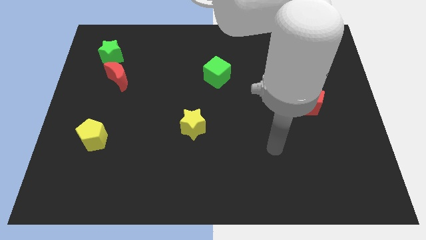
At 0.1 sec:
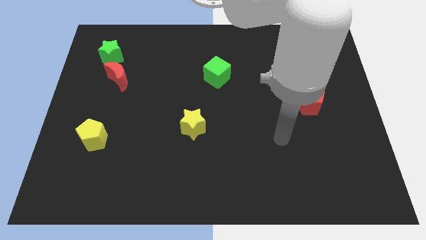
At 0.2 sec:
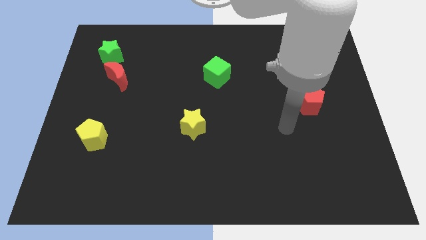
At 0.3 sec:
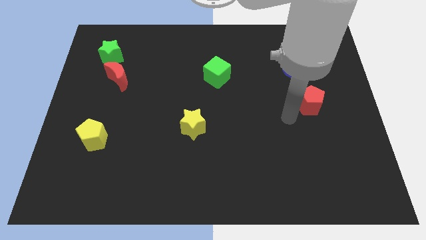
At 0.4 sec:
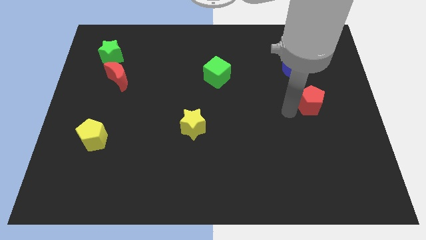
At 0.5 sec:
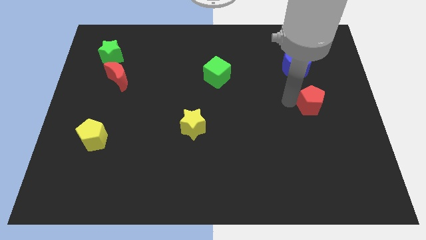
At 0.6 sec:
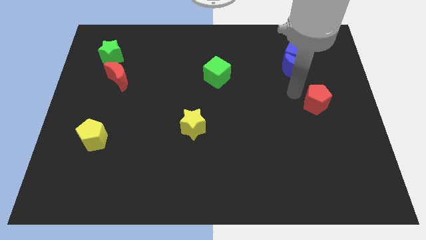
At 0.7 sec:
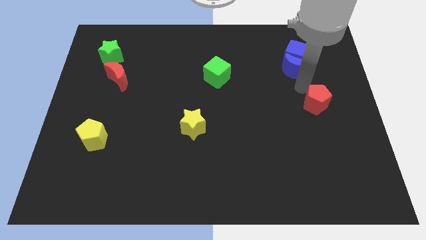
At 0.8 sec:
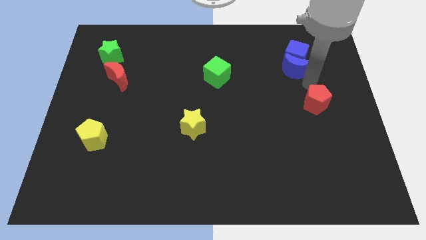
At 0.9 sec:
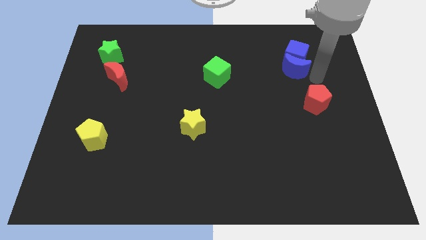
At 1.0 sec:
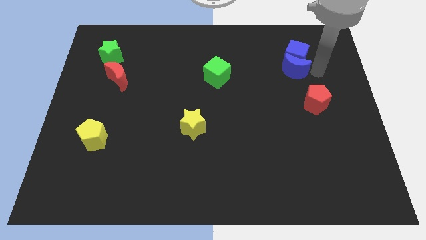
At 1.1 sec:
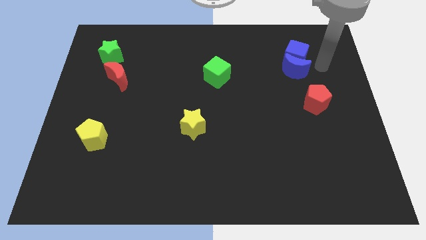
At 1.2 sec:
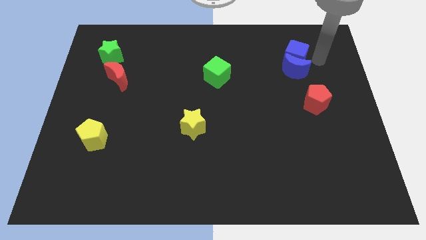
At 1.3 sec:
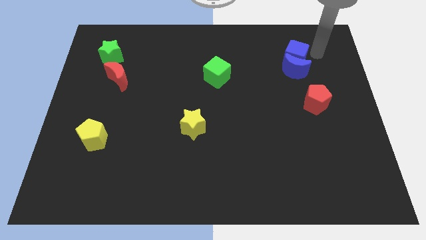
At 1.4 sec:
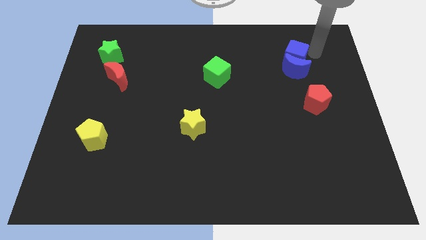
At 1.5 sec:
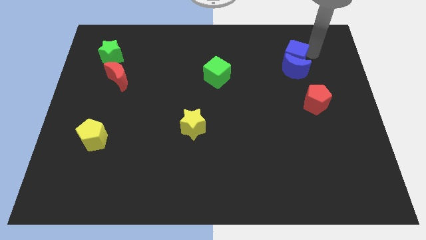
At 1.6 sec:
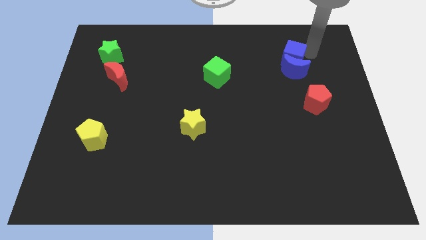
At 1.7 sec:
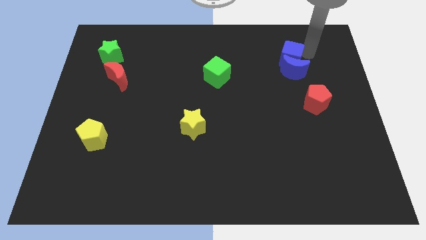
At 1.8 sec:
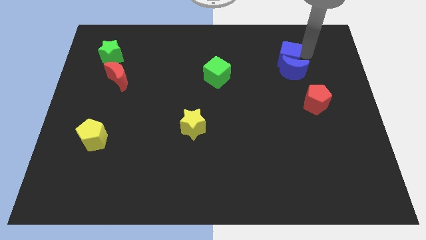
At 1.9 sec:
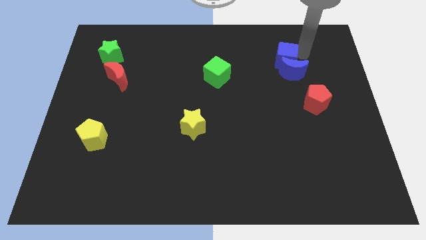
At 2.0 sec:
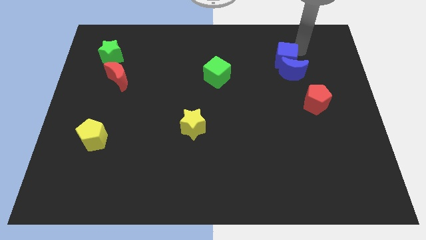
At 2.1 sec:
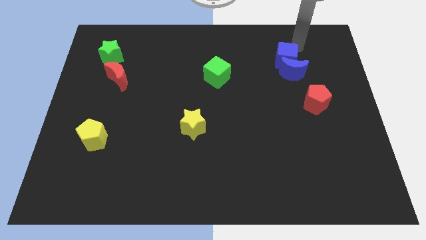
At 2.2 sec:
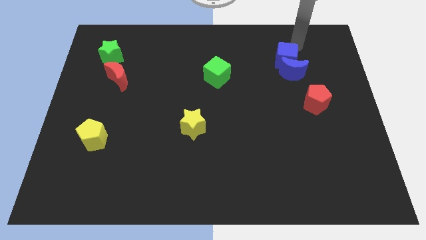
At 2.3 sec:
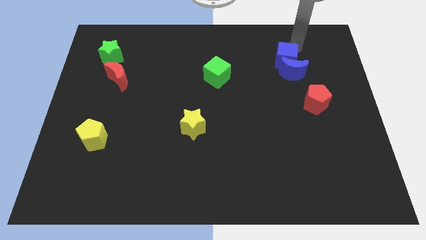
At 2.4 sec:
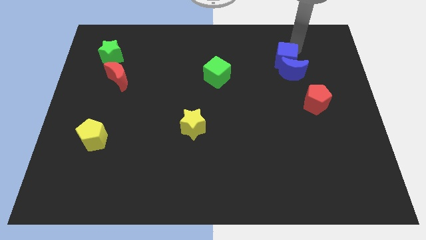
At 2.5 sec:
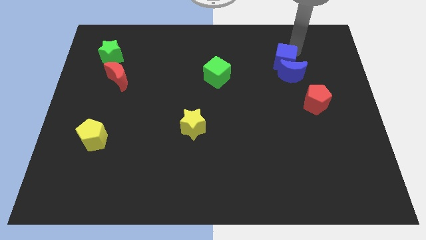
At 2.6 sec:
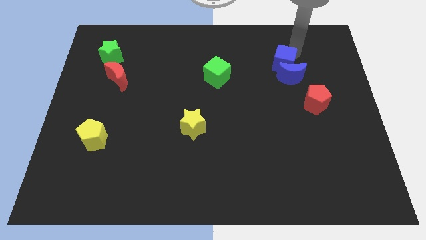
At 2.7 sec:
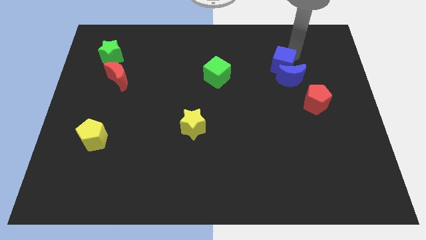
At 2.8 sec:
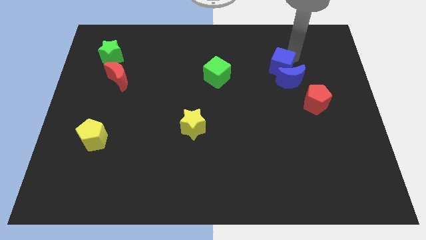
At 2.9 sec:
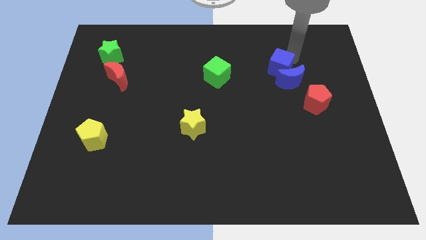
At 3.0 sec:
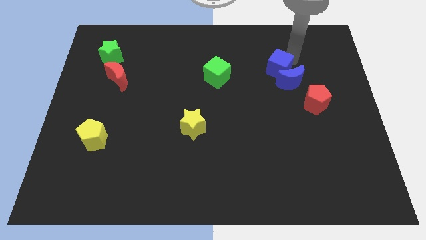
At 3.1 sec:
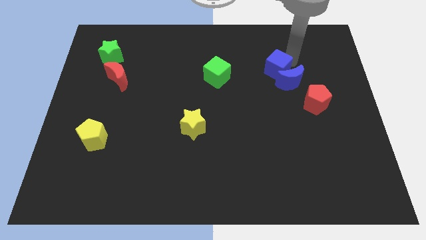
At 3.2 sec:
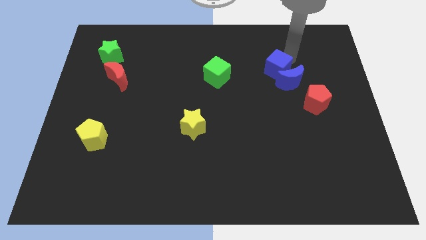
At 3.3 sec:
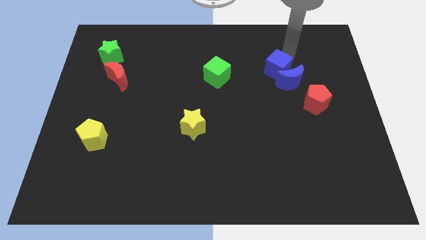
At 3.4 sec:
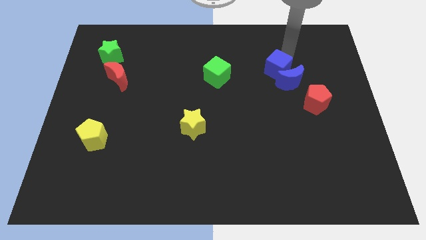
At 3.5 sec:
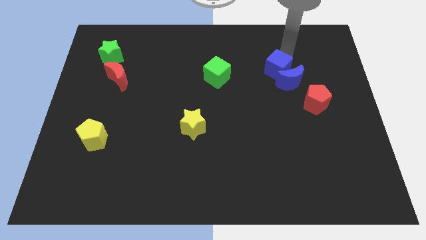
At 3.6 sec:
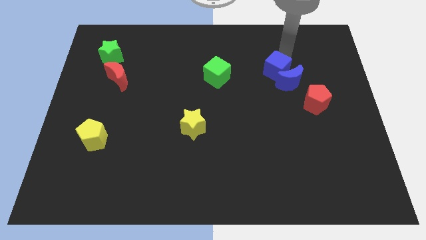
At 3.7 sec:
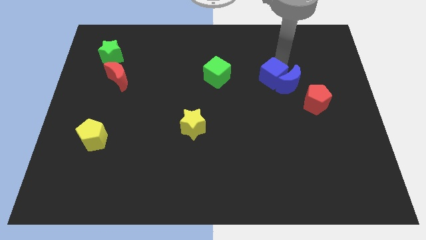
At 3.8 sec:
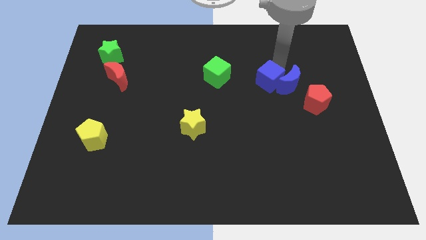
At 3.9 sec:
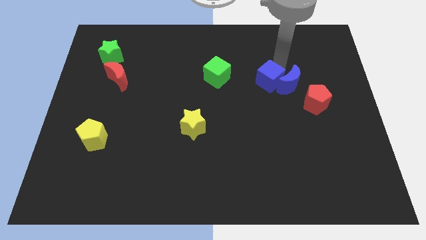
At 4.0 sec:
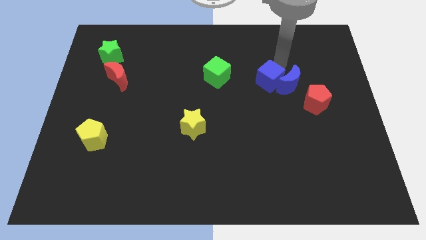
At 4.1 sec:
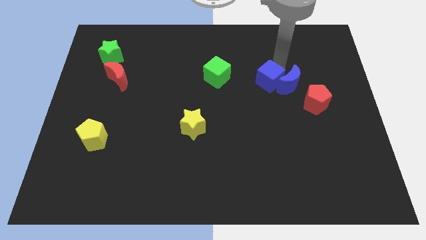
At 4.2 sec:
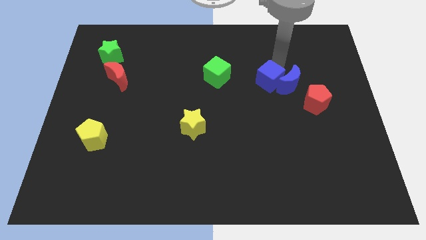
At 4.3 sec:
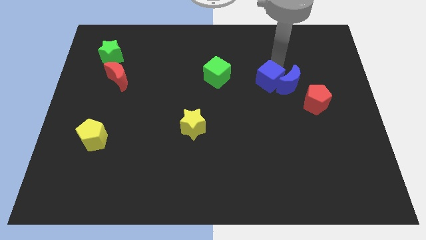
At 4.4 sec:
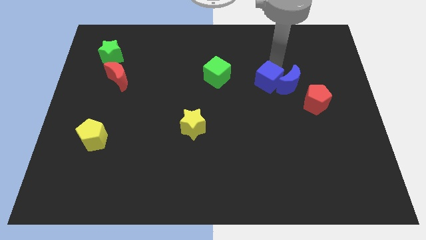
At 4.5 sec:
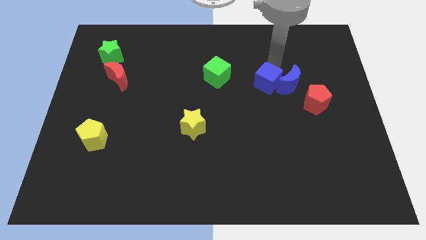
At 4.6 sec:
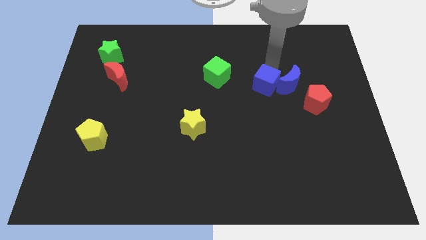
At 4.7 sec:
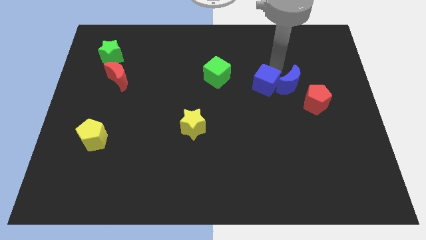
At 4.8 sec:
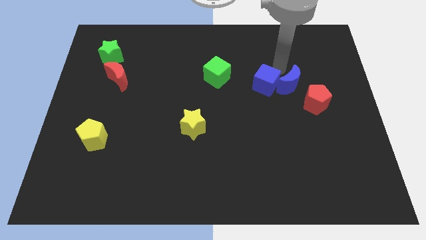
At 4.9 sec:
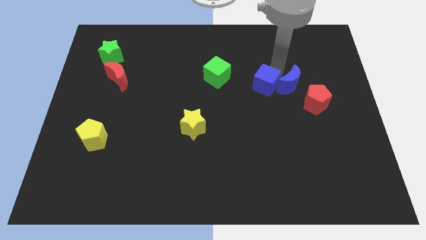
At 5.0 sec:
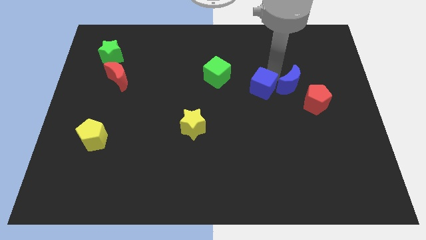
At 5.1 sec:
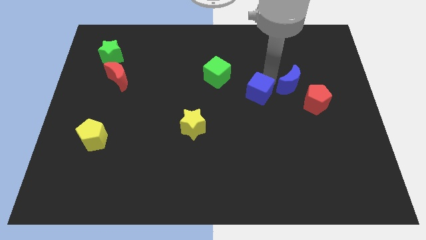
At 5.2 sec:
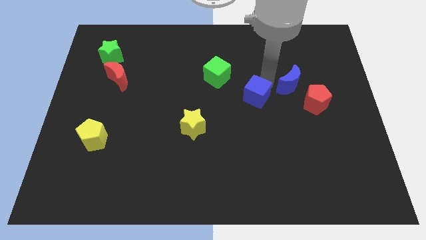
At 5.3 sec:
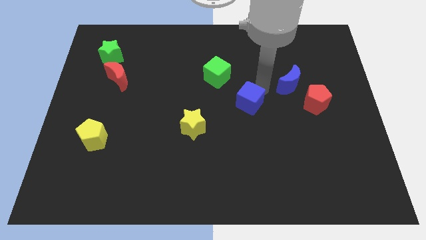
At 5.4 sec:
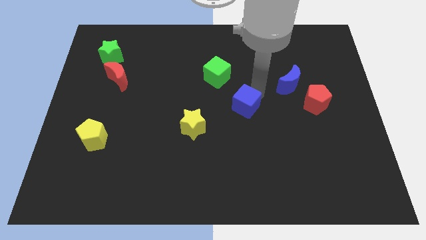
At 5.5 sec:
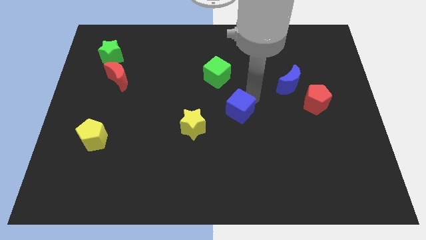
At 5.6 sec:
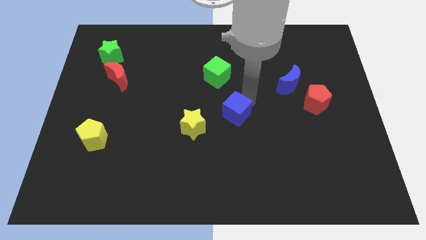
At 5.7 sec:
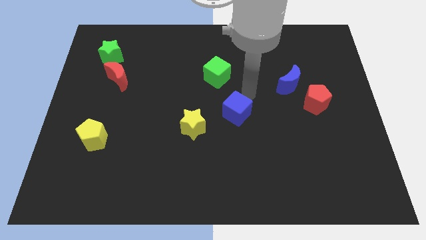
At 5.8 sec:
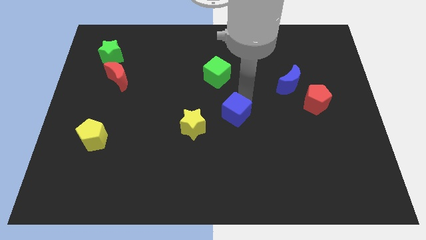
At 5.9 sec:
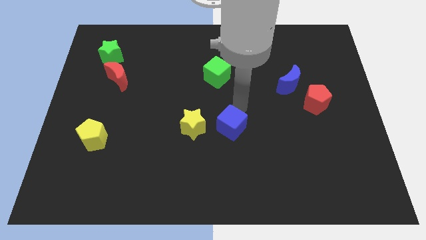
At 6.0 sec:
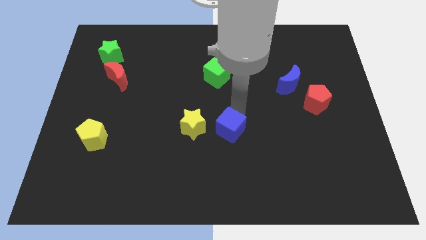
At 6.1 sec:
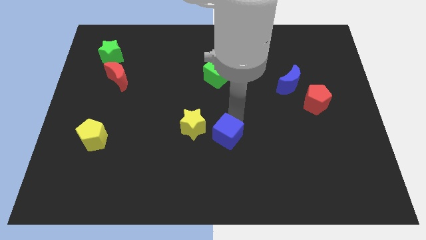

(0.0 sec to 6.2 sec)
push the blue cube to the bottom right of the yellow star

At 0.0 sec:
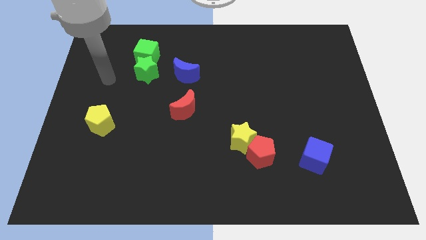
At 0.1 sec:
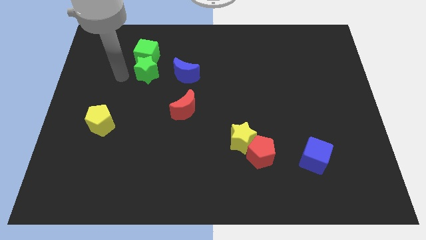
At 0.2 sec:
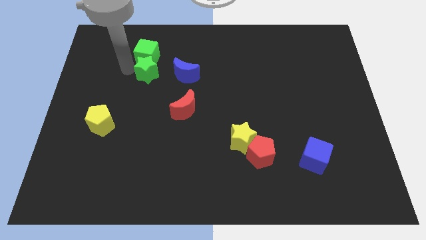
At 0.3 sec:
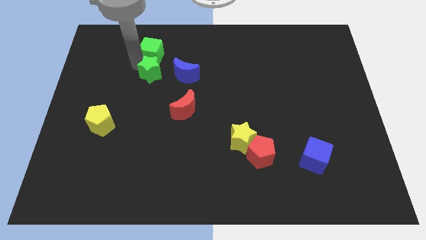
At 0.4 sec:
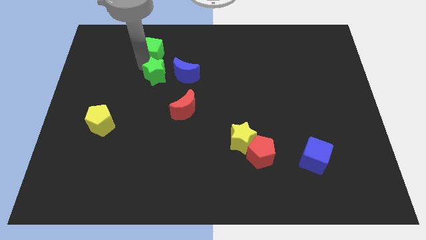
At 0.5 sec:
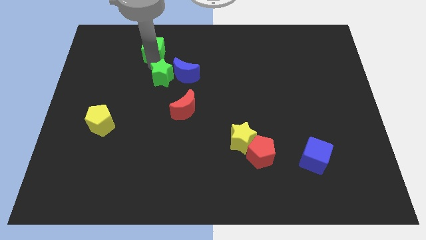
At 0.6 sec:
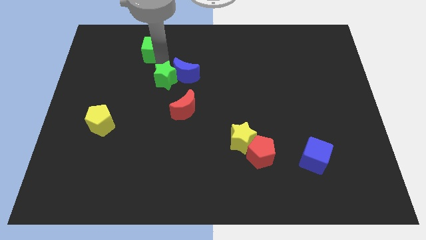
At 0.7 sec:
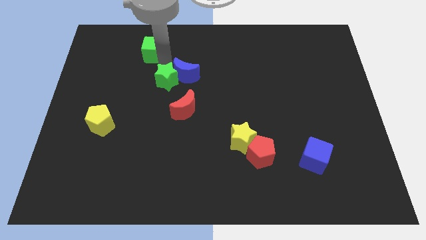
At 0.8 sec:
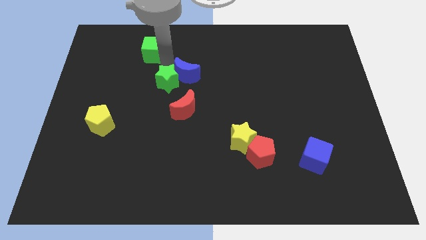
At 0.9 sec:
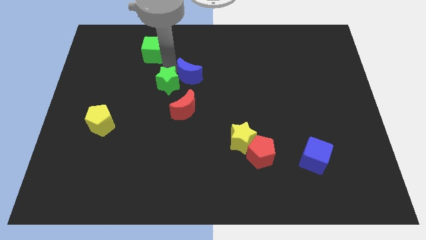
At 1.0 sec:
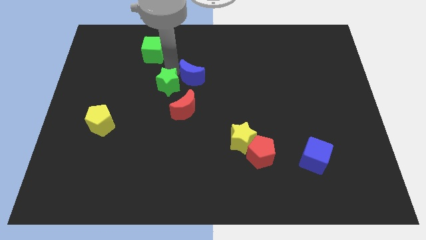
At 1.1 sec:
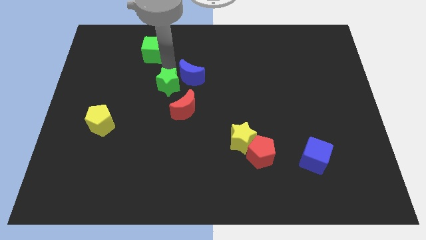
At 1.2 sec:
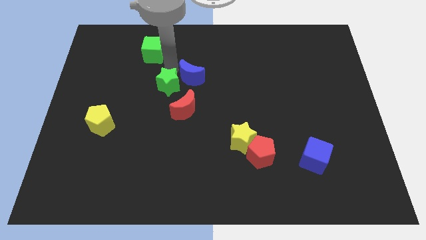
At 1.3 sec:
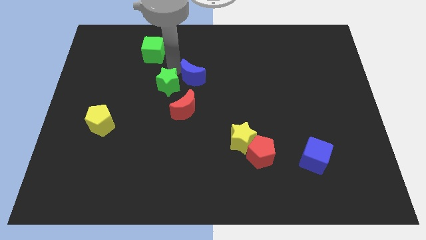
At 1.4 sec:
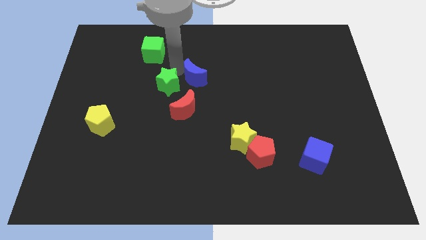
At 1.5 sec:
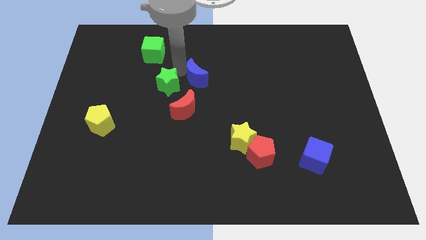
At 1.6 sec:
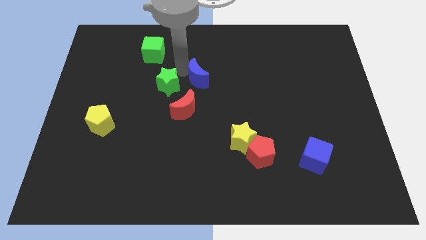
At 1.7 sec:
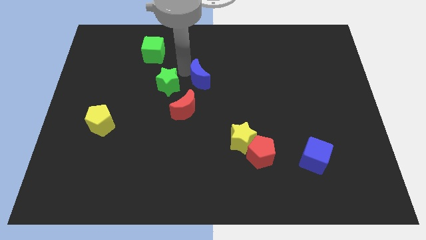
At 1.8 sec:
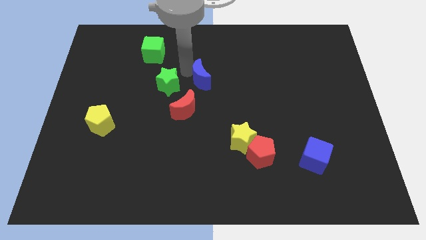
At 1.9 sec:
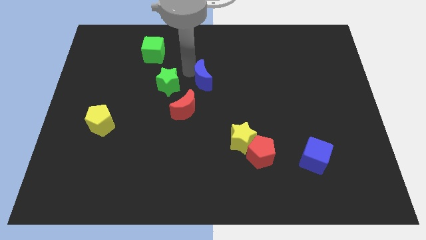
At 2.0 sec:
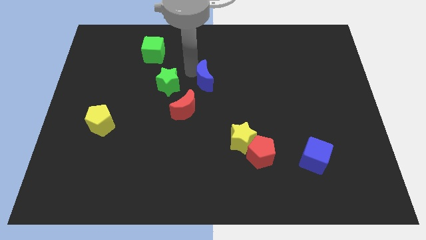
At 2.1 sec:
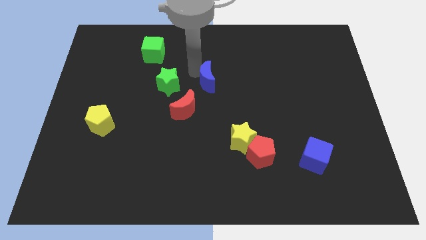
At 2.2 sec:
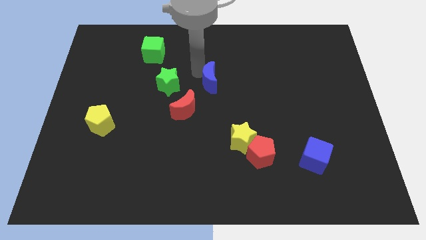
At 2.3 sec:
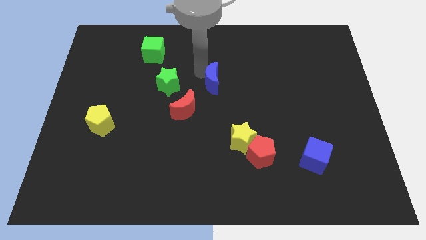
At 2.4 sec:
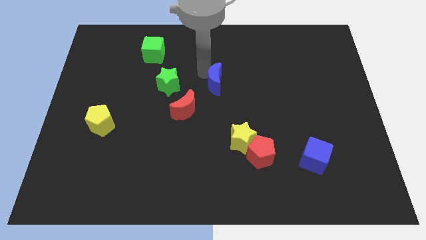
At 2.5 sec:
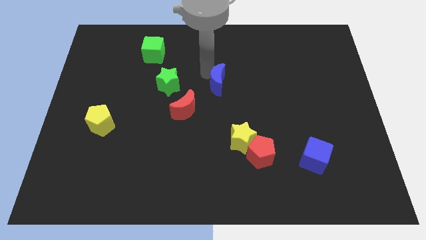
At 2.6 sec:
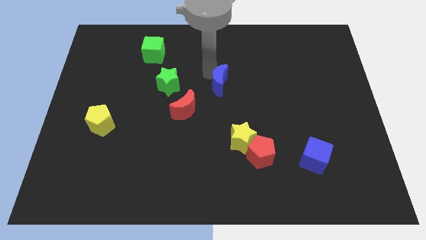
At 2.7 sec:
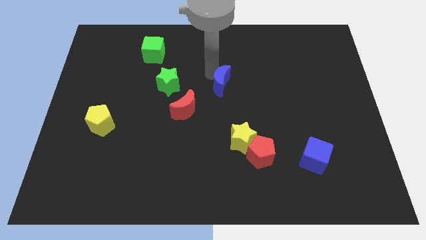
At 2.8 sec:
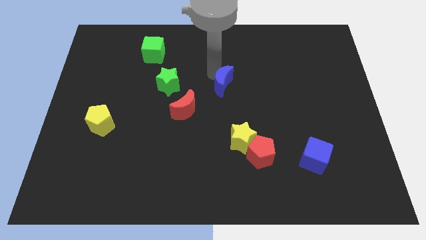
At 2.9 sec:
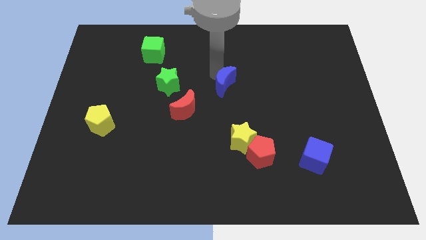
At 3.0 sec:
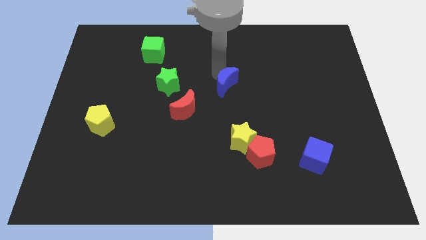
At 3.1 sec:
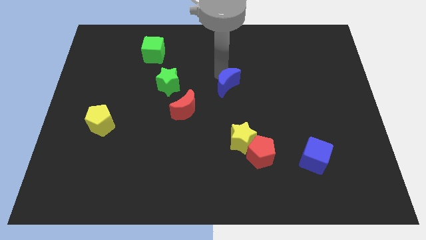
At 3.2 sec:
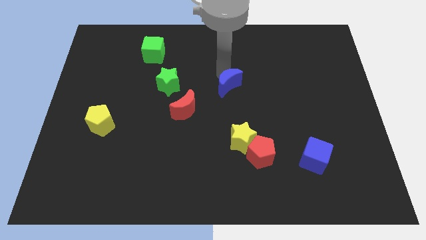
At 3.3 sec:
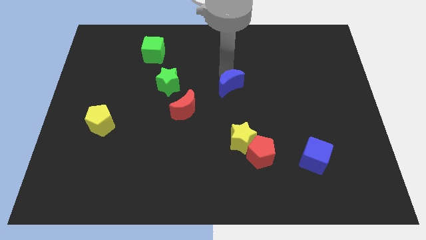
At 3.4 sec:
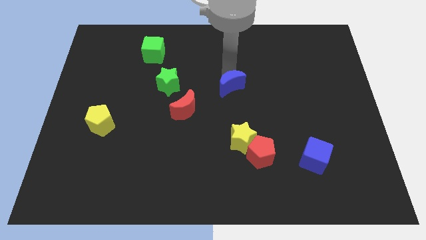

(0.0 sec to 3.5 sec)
push the blue moon to the top side of the yellow star
